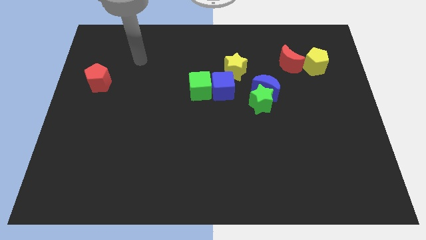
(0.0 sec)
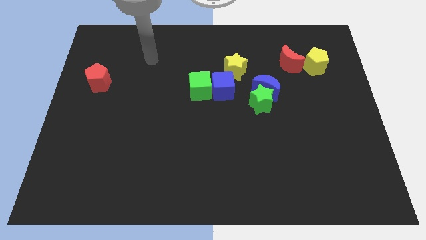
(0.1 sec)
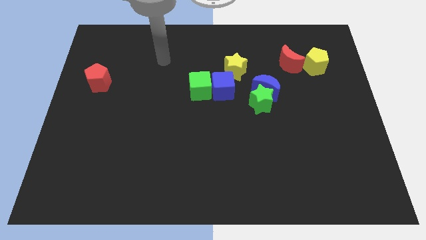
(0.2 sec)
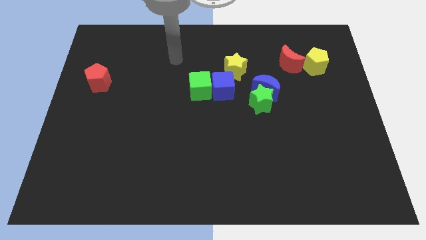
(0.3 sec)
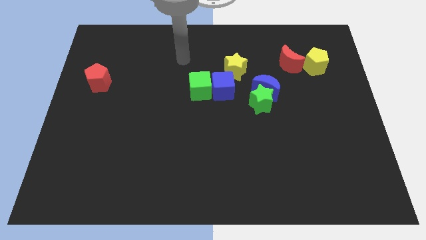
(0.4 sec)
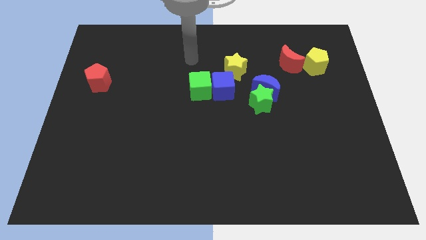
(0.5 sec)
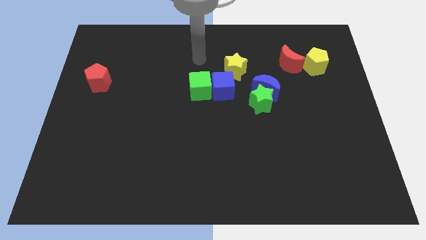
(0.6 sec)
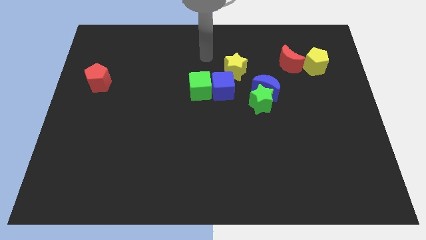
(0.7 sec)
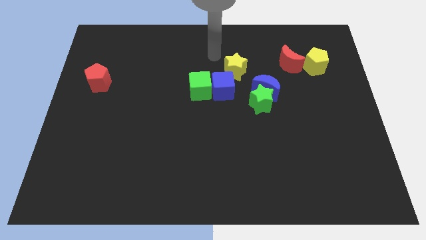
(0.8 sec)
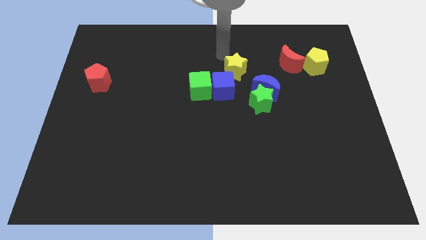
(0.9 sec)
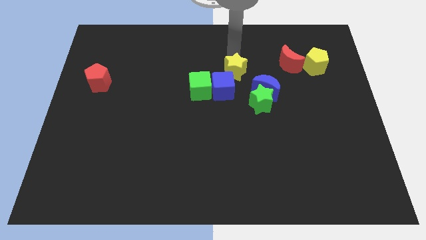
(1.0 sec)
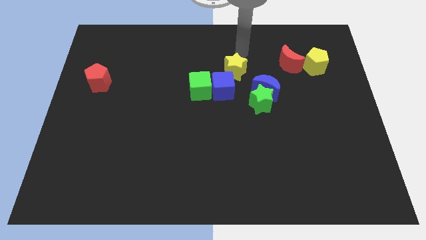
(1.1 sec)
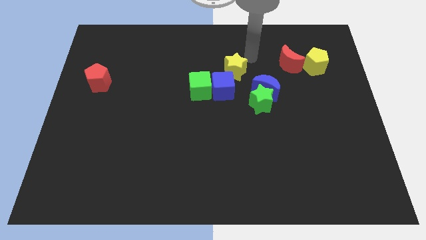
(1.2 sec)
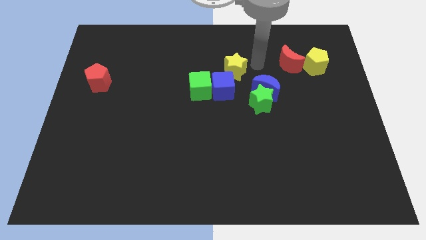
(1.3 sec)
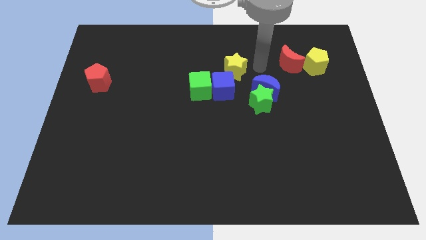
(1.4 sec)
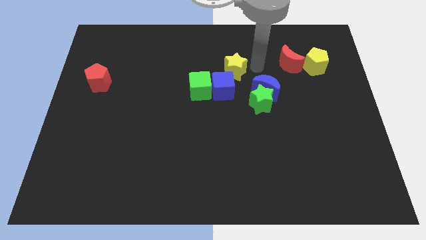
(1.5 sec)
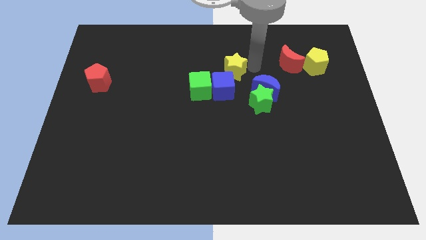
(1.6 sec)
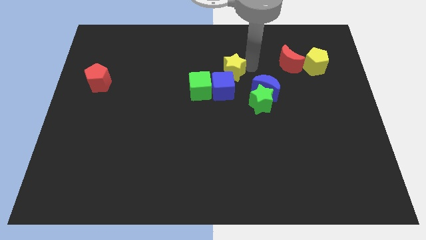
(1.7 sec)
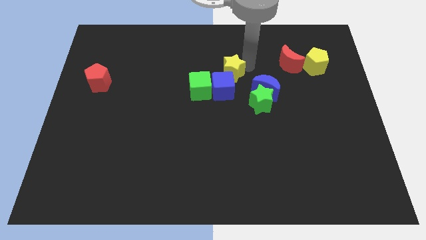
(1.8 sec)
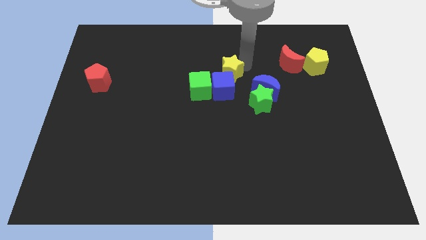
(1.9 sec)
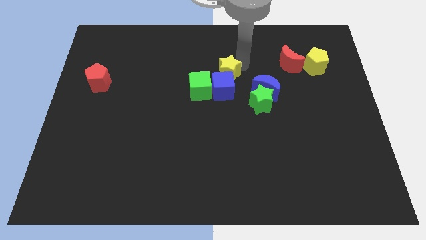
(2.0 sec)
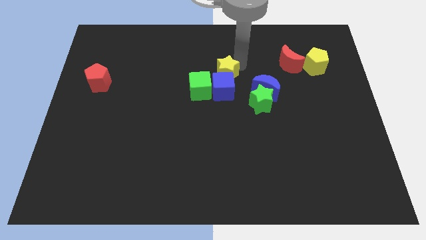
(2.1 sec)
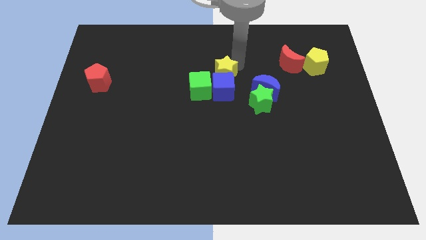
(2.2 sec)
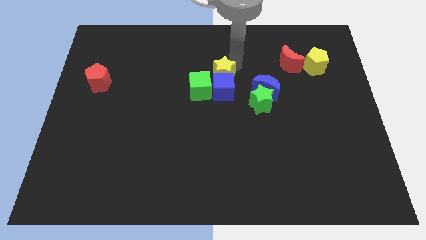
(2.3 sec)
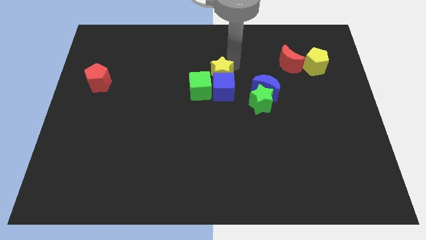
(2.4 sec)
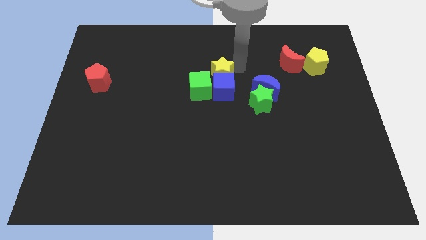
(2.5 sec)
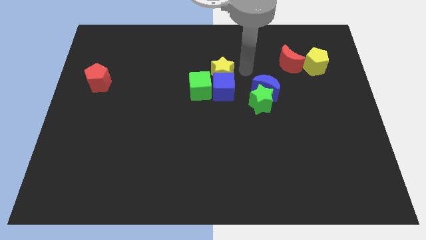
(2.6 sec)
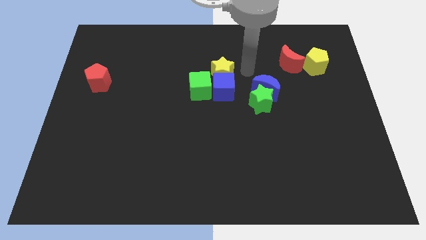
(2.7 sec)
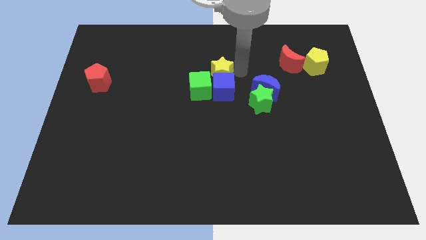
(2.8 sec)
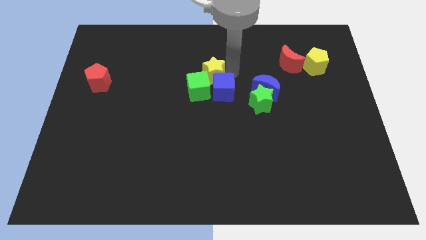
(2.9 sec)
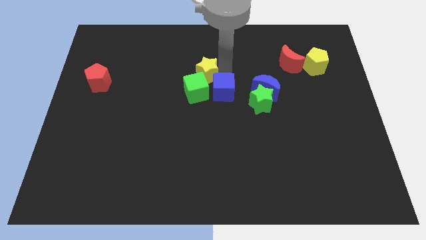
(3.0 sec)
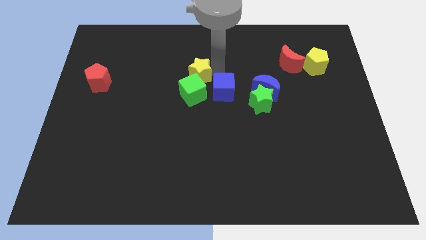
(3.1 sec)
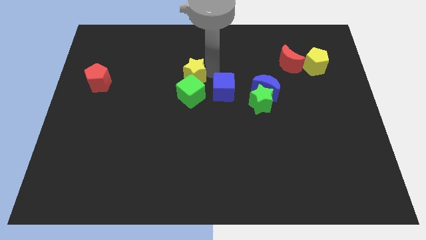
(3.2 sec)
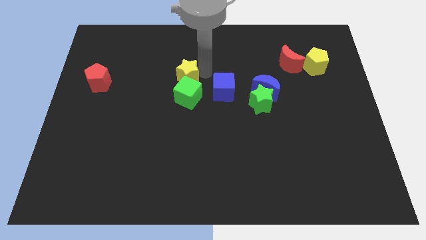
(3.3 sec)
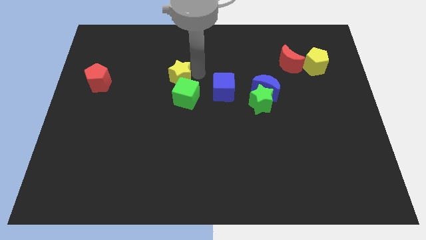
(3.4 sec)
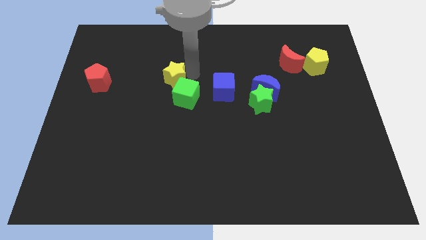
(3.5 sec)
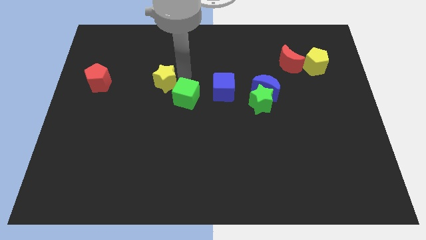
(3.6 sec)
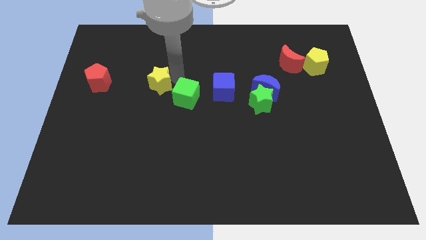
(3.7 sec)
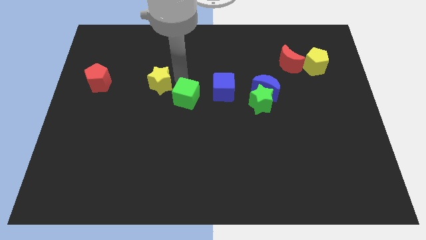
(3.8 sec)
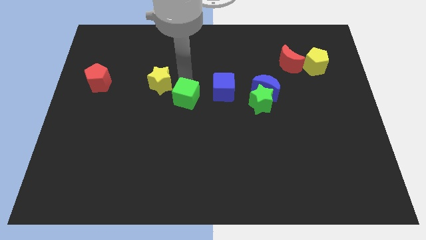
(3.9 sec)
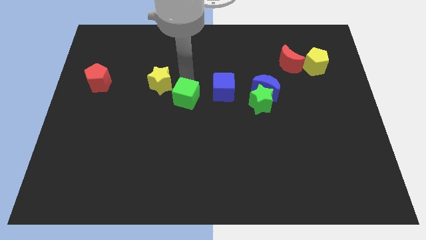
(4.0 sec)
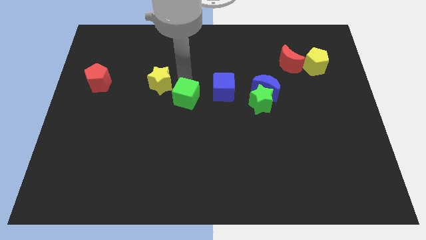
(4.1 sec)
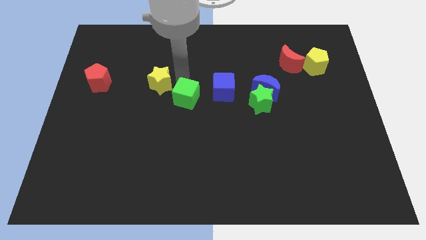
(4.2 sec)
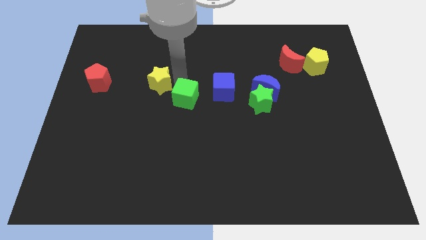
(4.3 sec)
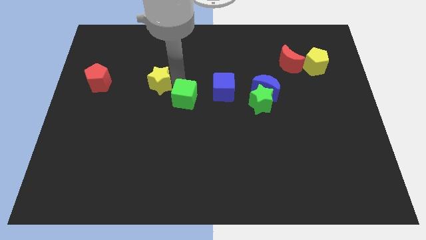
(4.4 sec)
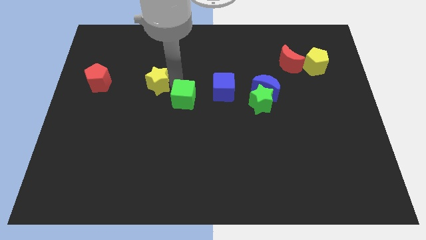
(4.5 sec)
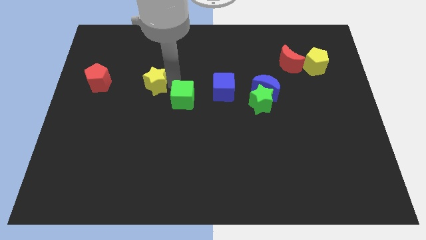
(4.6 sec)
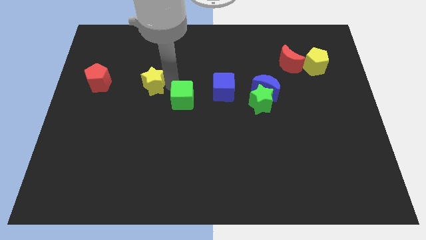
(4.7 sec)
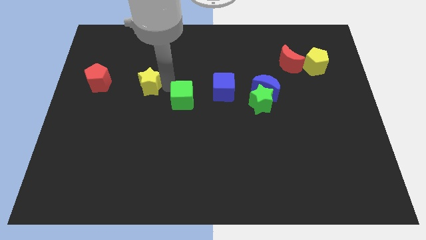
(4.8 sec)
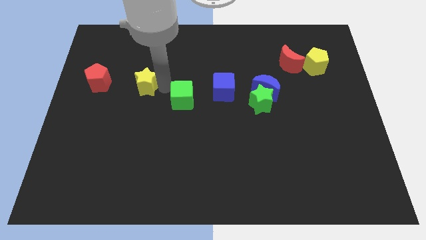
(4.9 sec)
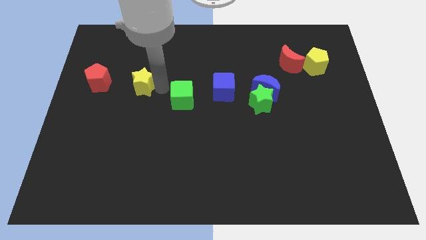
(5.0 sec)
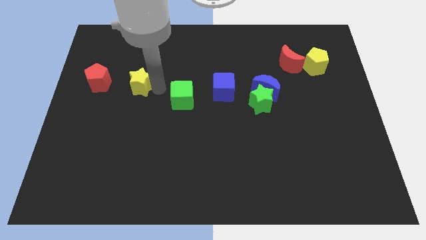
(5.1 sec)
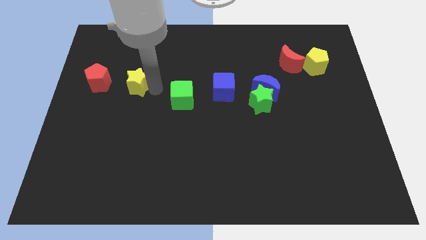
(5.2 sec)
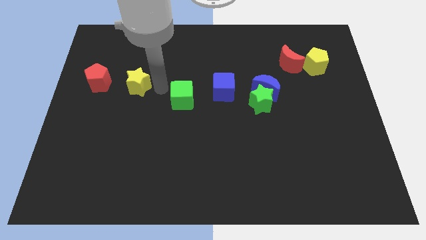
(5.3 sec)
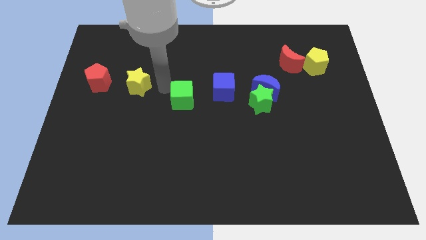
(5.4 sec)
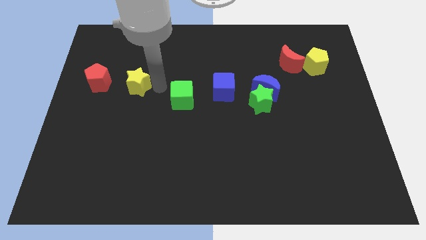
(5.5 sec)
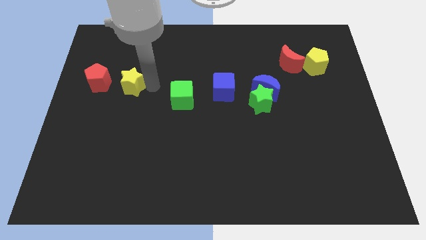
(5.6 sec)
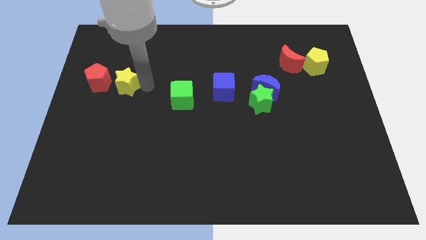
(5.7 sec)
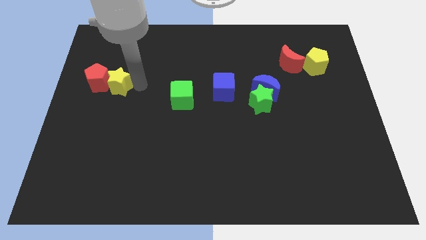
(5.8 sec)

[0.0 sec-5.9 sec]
move the yellow star close to the red pentagon
